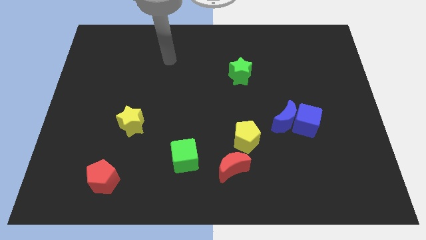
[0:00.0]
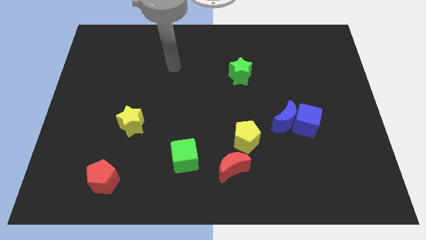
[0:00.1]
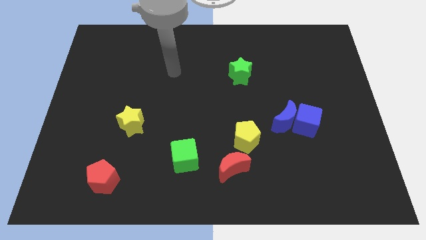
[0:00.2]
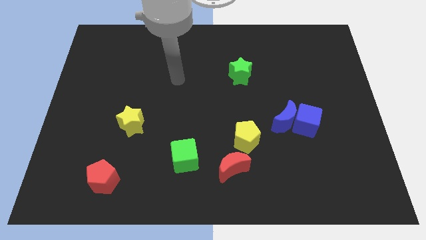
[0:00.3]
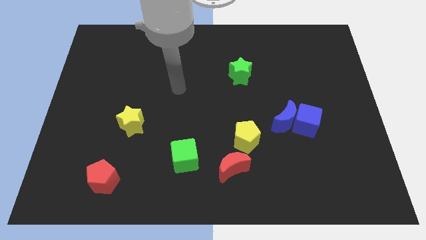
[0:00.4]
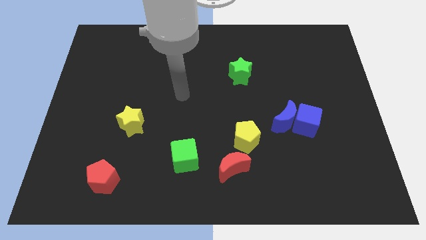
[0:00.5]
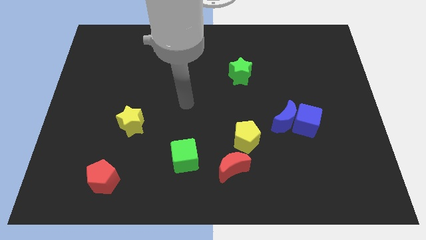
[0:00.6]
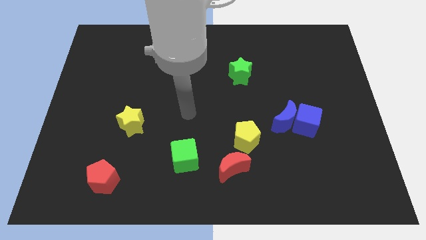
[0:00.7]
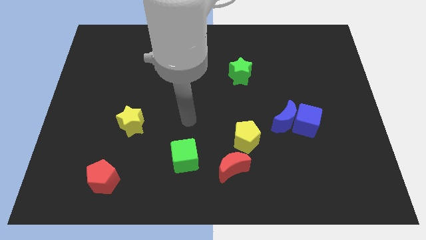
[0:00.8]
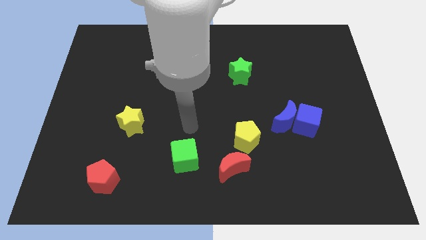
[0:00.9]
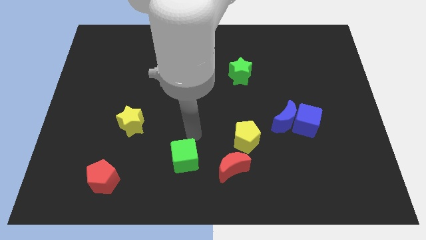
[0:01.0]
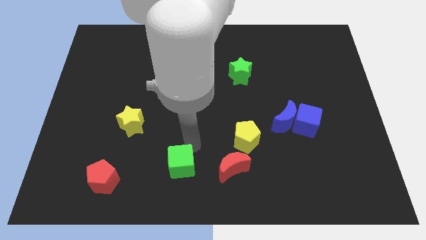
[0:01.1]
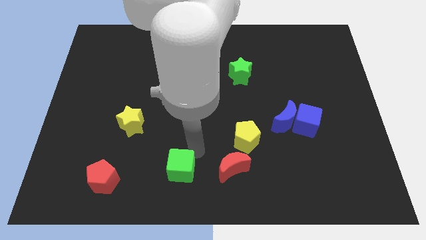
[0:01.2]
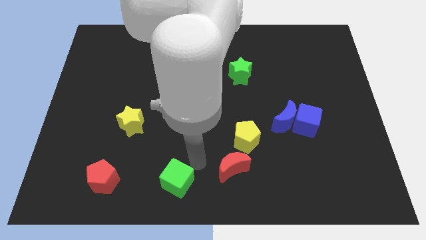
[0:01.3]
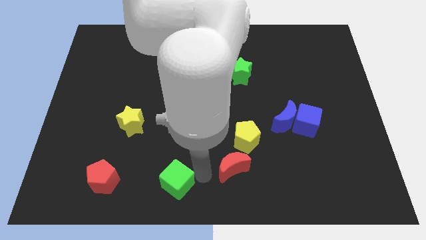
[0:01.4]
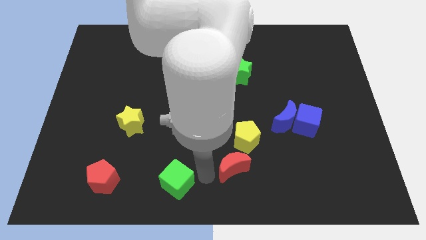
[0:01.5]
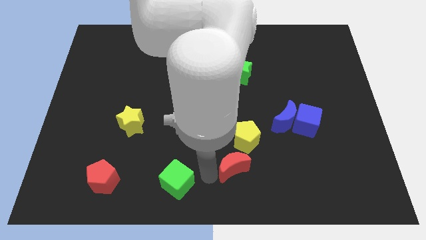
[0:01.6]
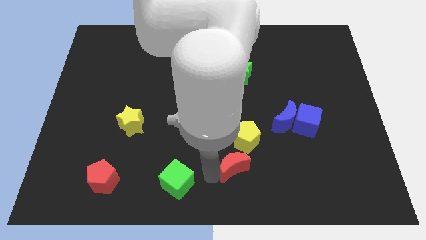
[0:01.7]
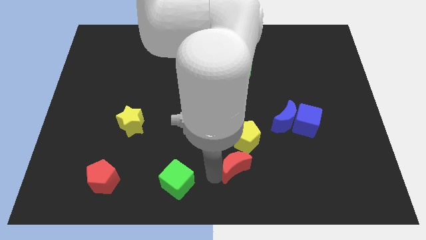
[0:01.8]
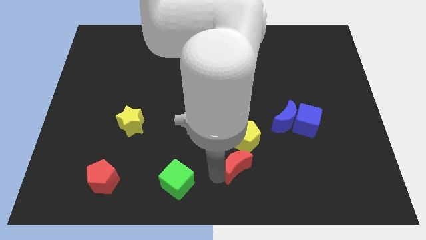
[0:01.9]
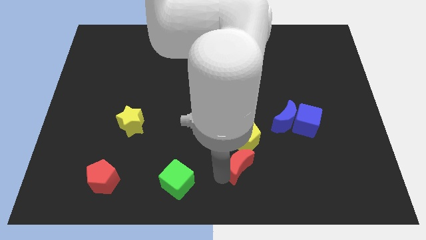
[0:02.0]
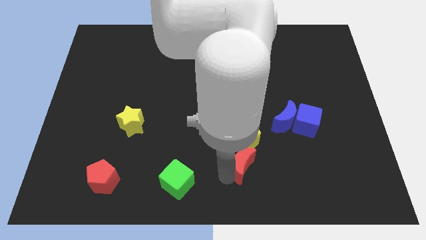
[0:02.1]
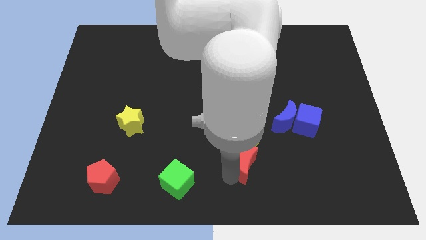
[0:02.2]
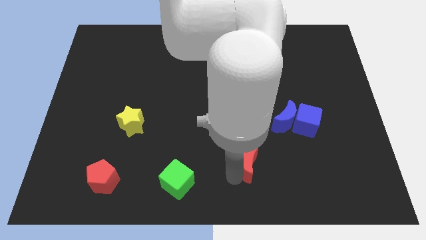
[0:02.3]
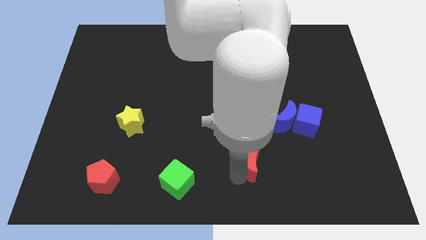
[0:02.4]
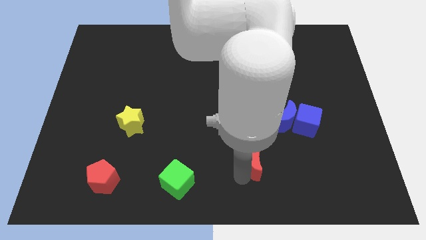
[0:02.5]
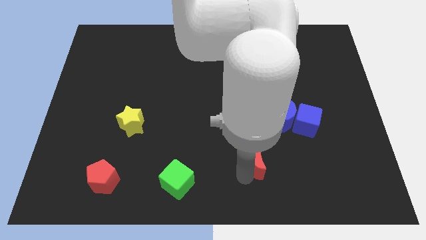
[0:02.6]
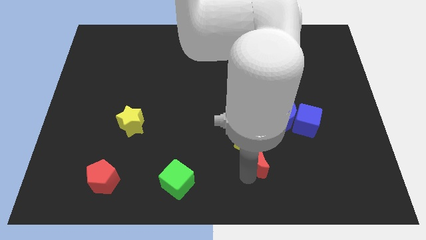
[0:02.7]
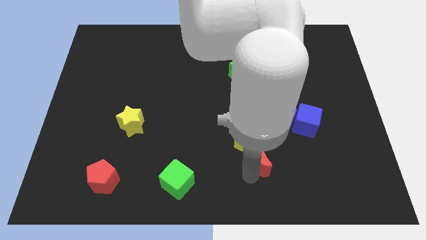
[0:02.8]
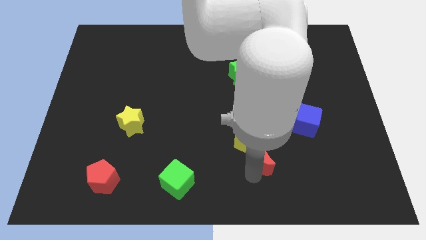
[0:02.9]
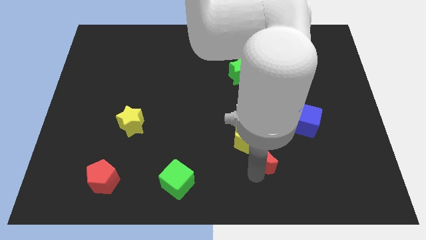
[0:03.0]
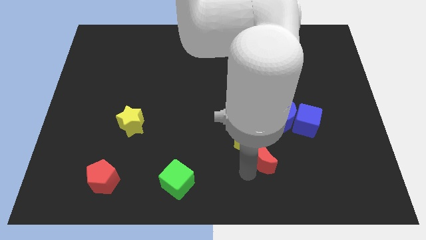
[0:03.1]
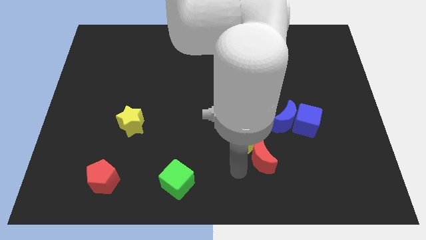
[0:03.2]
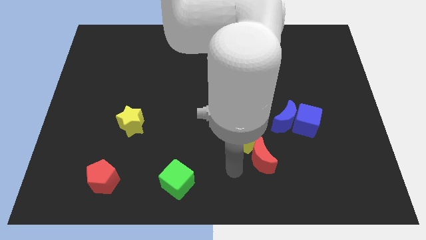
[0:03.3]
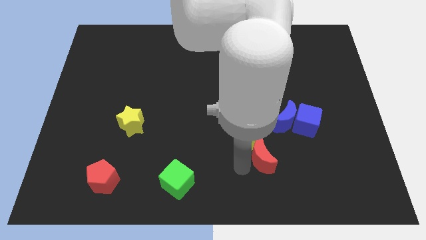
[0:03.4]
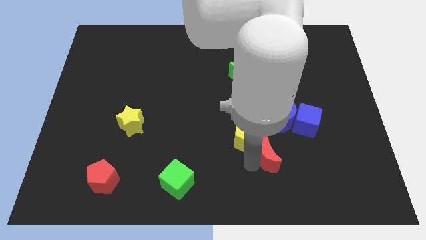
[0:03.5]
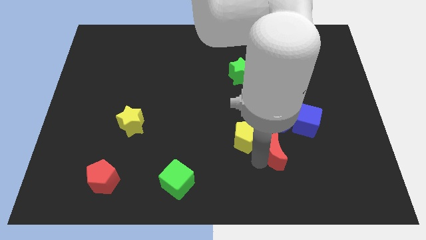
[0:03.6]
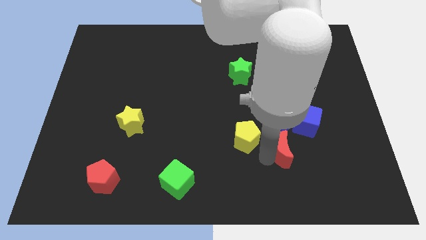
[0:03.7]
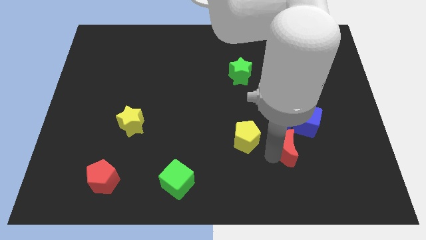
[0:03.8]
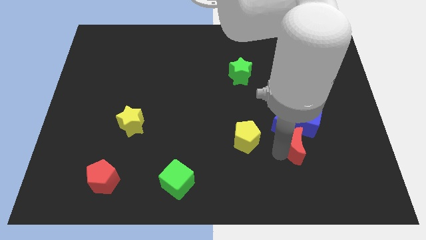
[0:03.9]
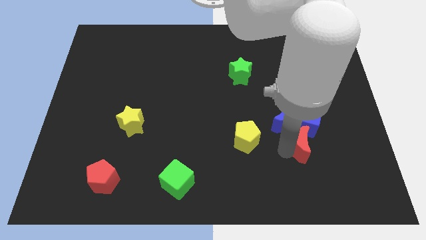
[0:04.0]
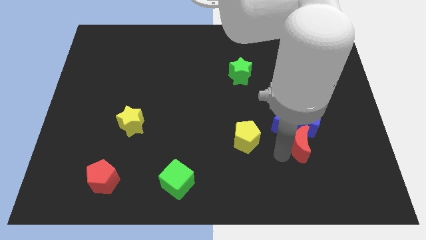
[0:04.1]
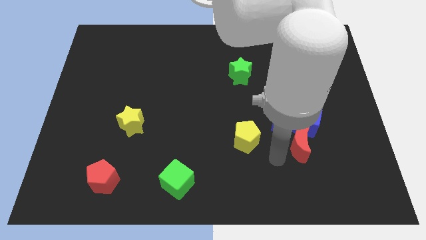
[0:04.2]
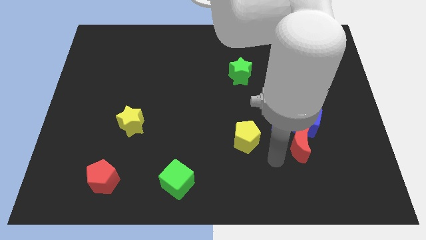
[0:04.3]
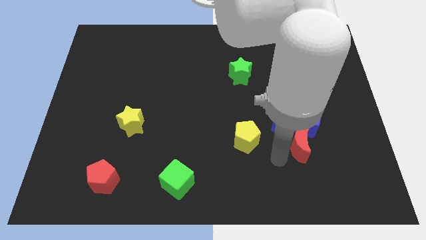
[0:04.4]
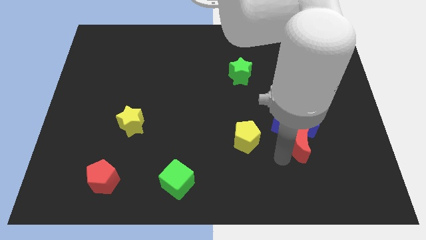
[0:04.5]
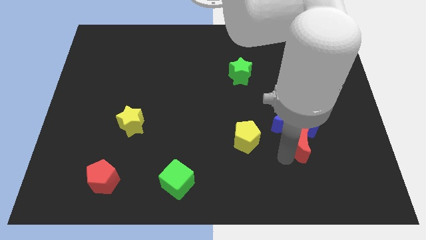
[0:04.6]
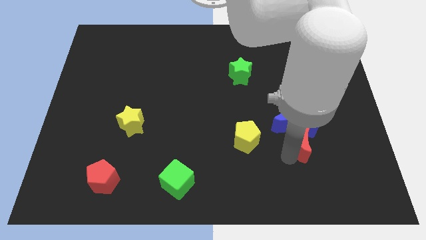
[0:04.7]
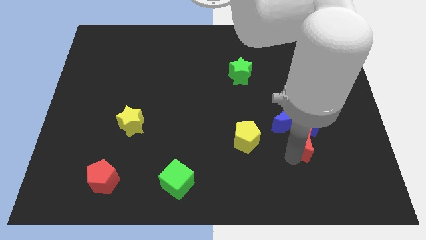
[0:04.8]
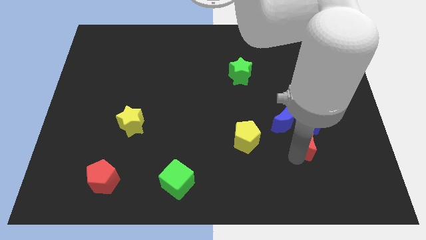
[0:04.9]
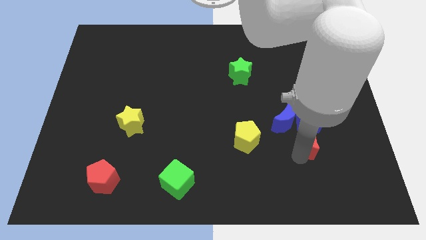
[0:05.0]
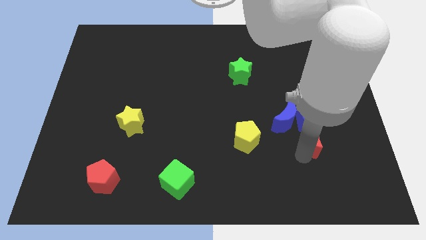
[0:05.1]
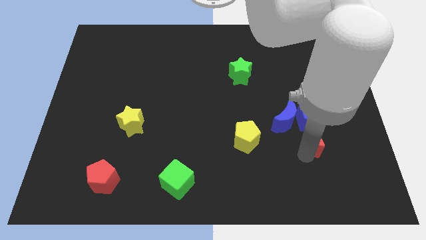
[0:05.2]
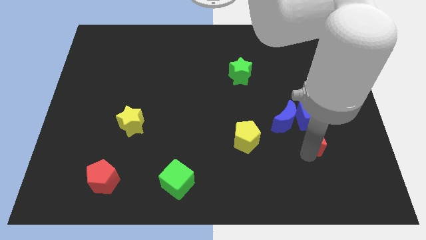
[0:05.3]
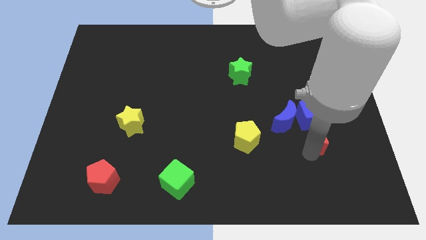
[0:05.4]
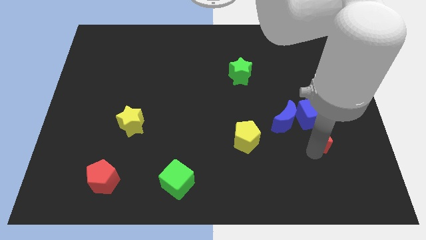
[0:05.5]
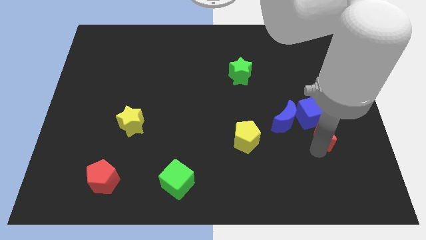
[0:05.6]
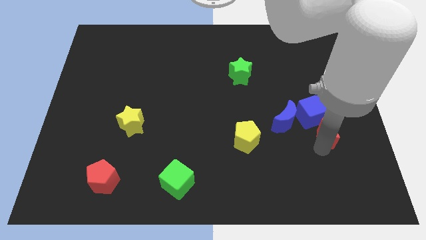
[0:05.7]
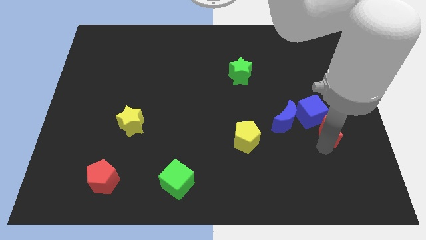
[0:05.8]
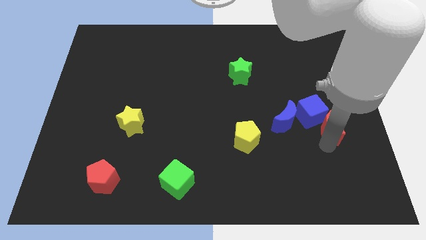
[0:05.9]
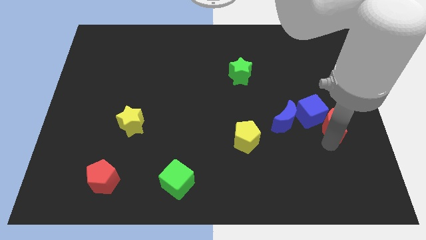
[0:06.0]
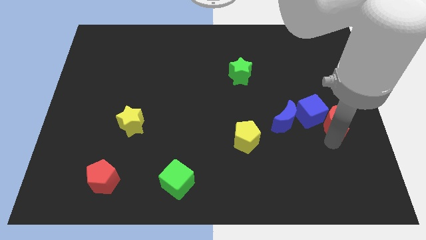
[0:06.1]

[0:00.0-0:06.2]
push the red moon to the right side
